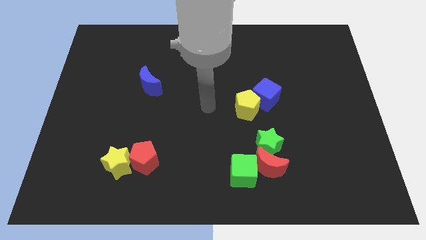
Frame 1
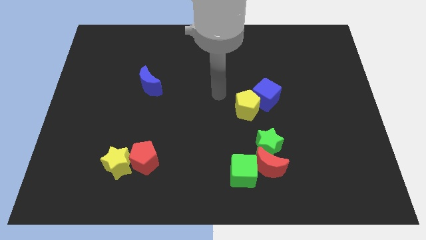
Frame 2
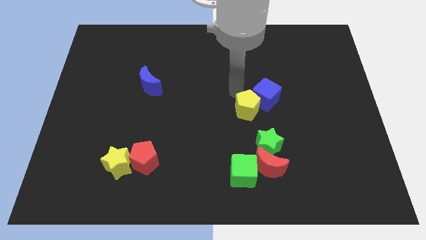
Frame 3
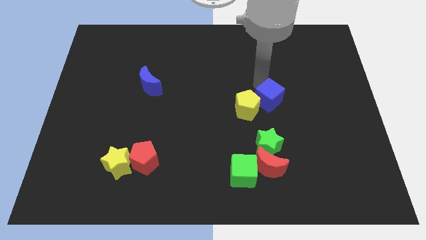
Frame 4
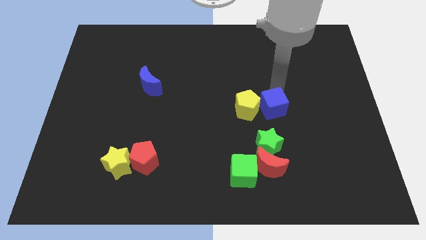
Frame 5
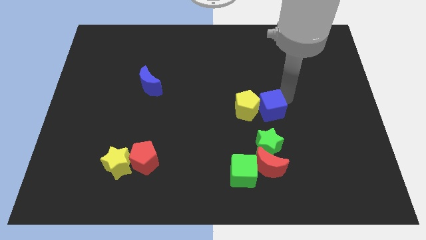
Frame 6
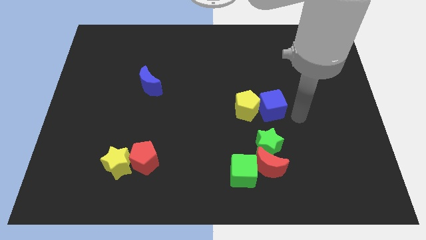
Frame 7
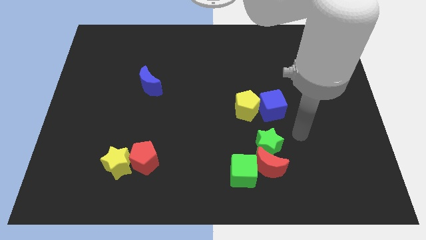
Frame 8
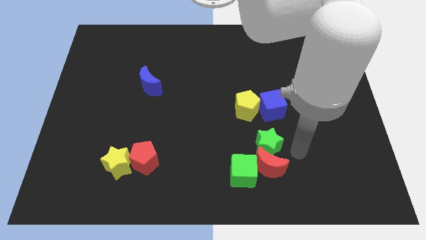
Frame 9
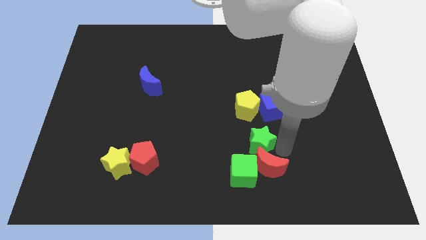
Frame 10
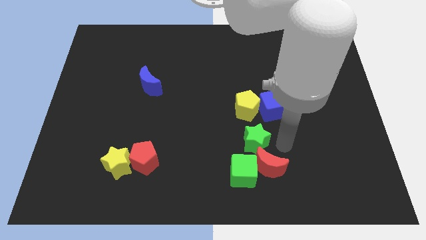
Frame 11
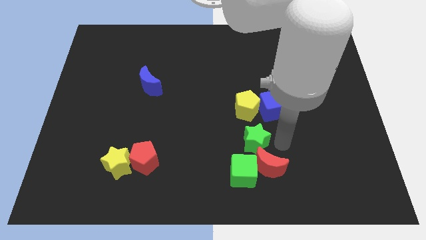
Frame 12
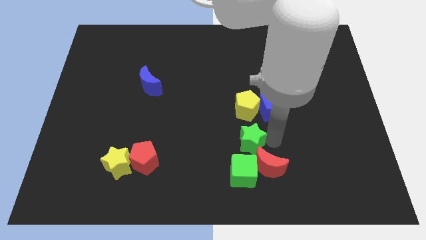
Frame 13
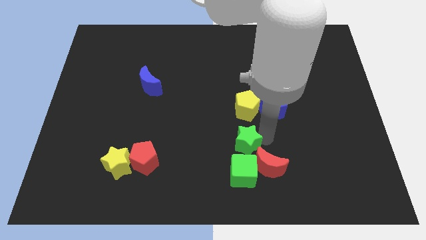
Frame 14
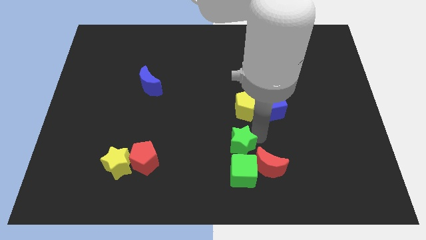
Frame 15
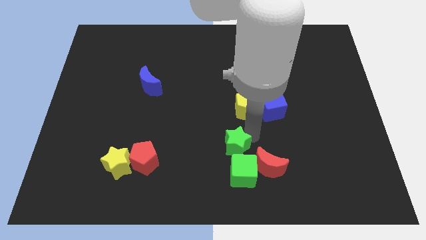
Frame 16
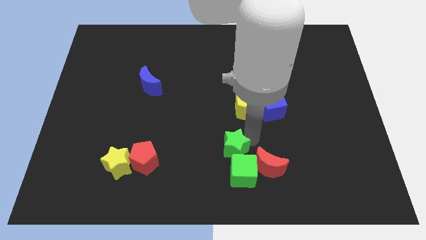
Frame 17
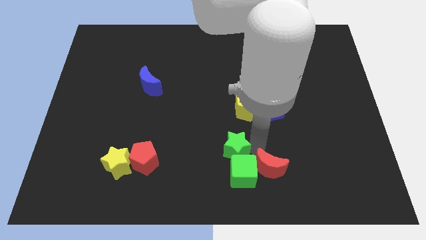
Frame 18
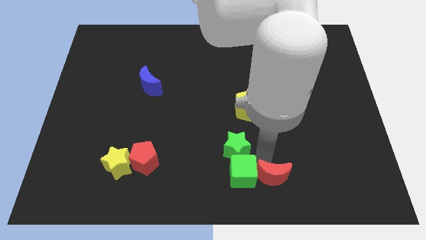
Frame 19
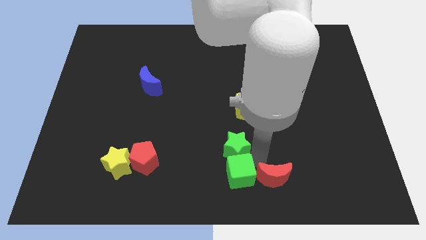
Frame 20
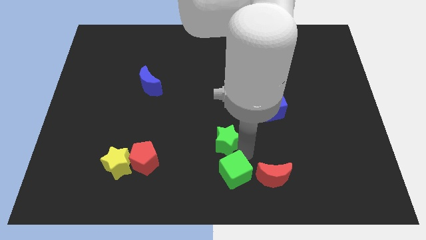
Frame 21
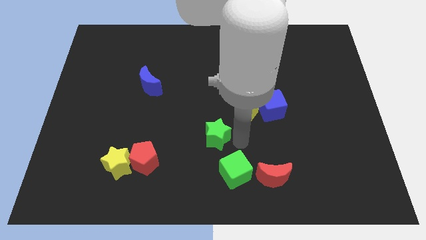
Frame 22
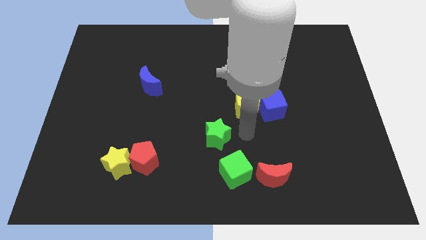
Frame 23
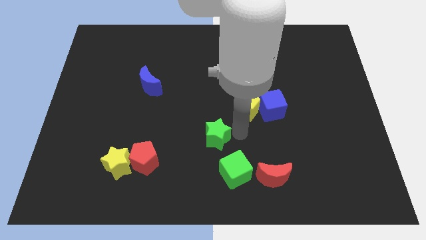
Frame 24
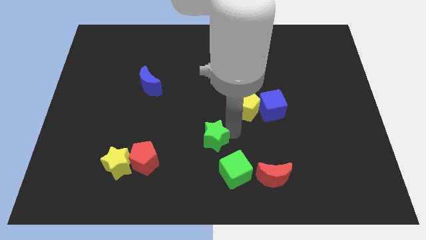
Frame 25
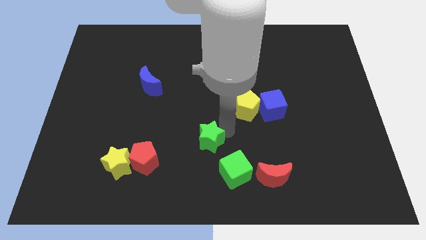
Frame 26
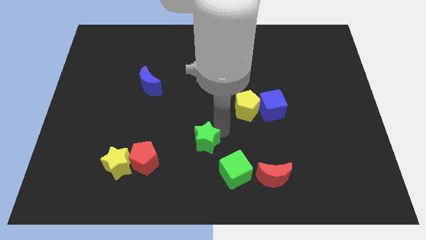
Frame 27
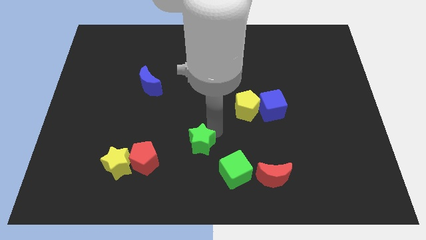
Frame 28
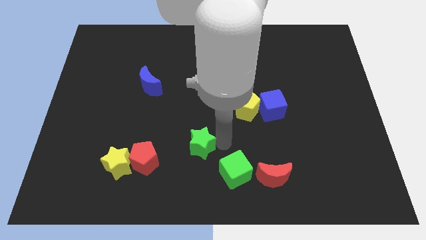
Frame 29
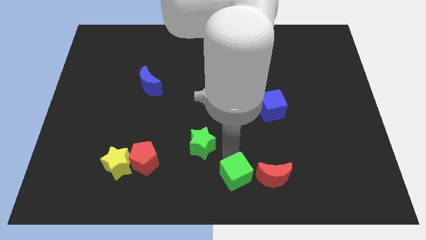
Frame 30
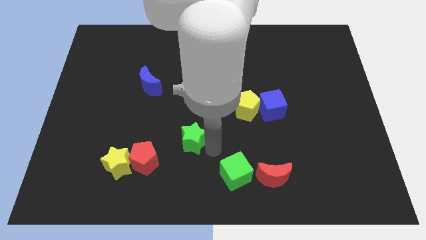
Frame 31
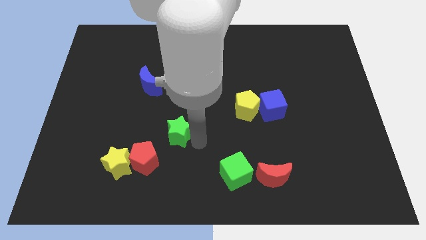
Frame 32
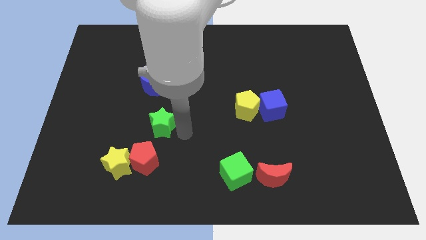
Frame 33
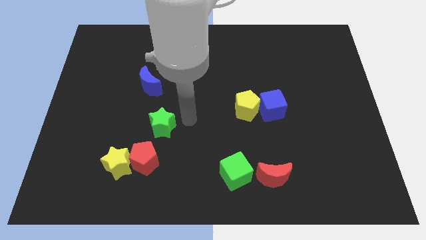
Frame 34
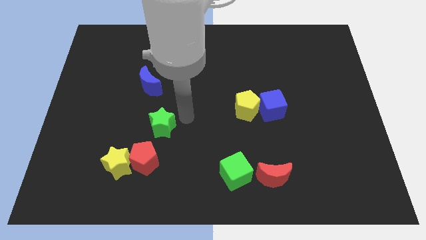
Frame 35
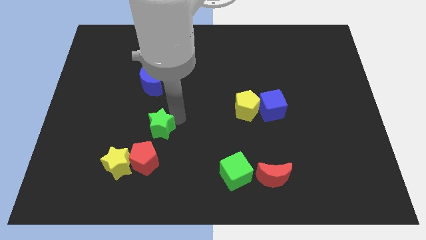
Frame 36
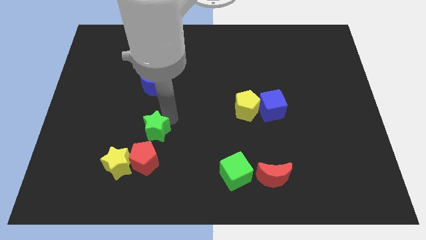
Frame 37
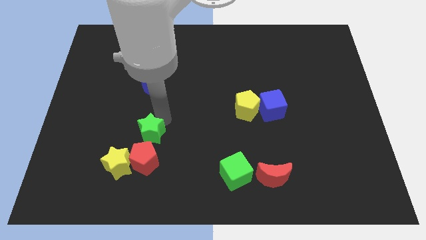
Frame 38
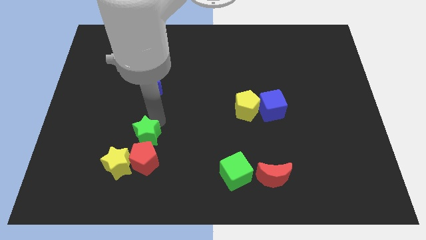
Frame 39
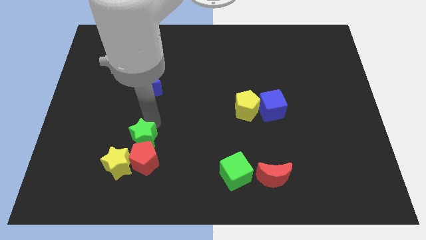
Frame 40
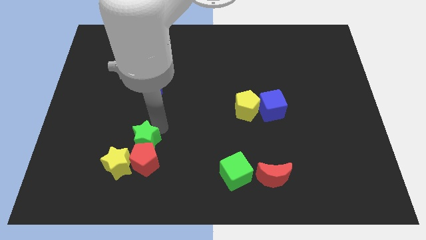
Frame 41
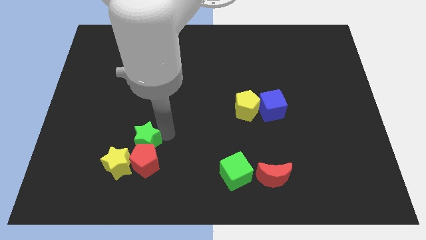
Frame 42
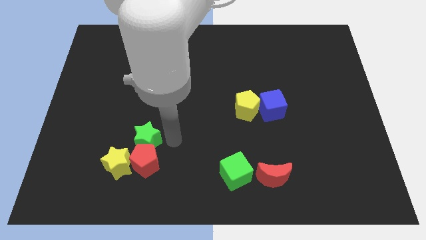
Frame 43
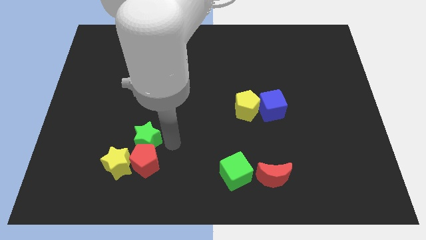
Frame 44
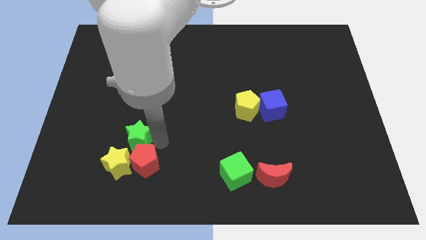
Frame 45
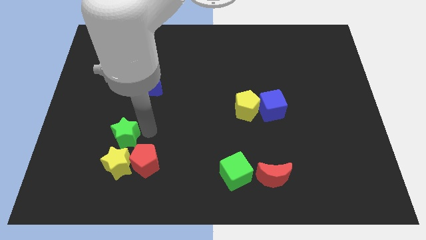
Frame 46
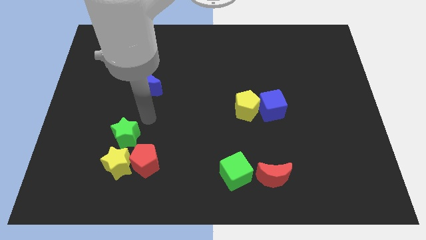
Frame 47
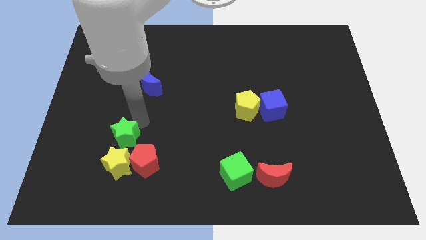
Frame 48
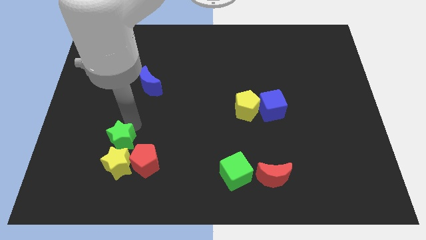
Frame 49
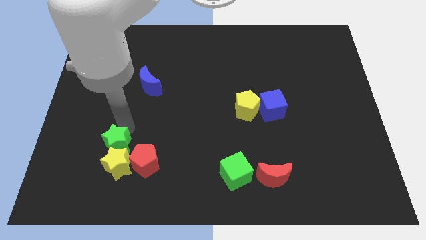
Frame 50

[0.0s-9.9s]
put the green star to the left of the red pentagon

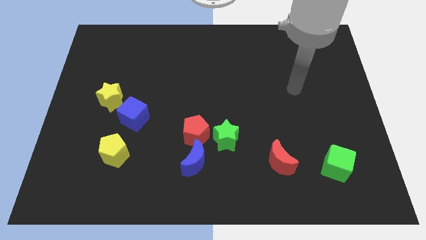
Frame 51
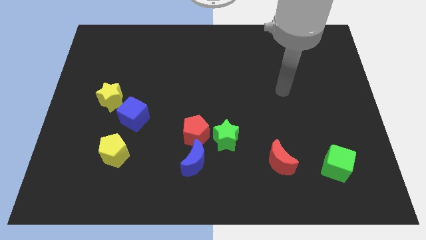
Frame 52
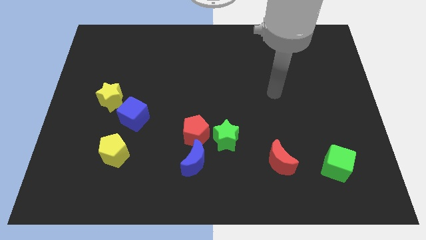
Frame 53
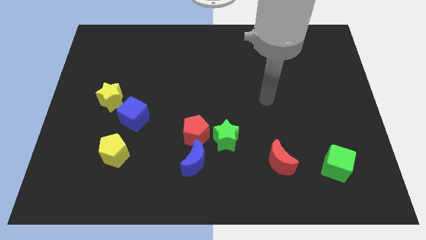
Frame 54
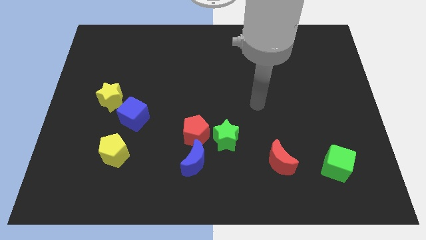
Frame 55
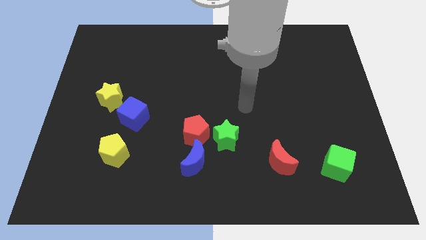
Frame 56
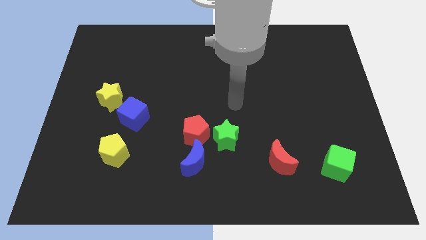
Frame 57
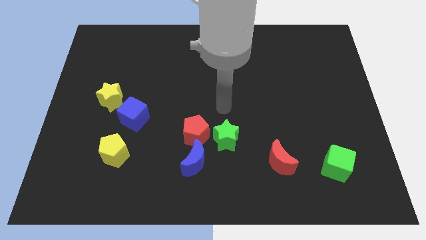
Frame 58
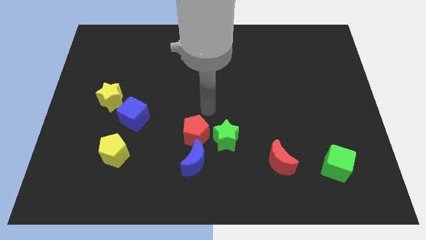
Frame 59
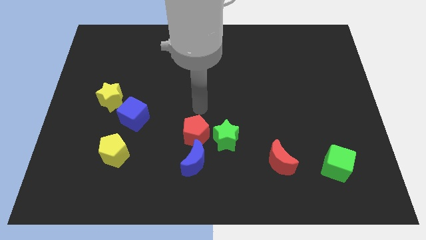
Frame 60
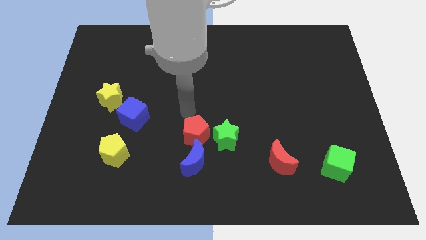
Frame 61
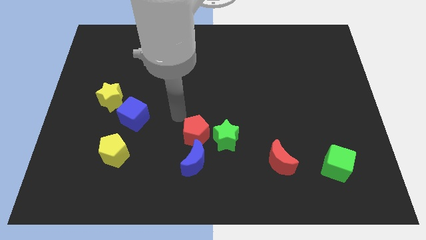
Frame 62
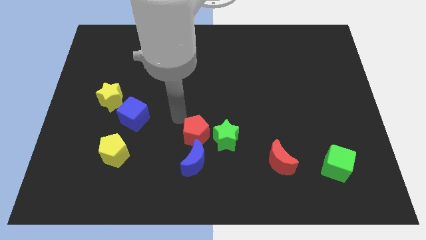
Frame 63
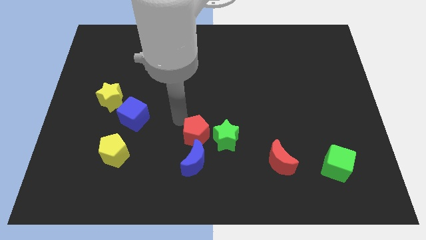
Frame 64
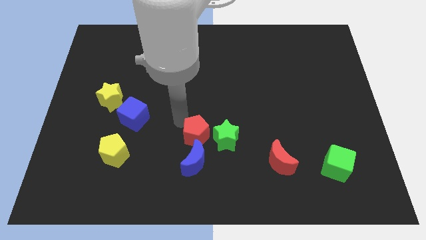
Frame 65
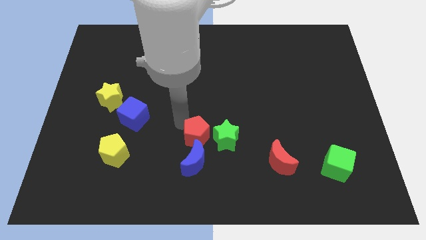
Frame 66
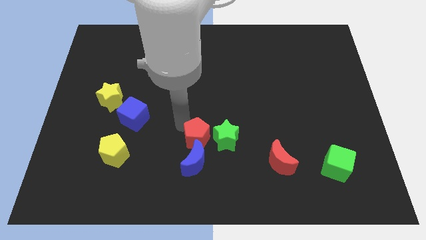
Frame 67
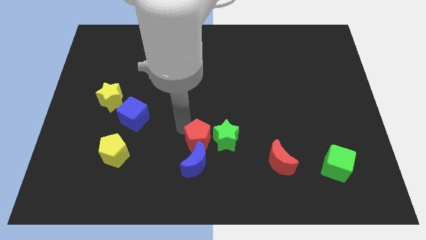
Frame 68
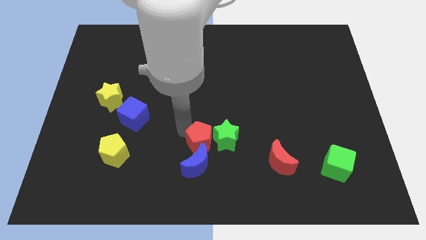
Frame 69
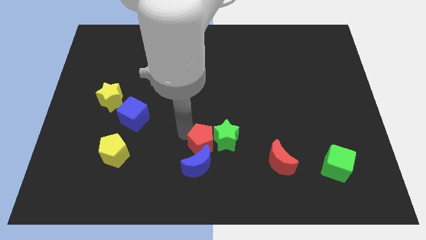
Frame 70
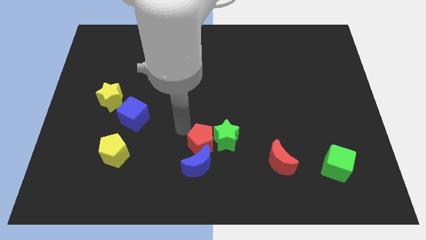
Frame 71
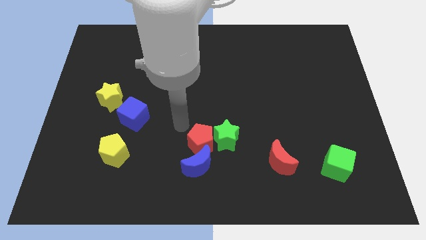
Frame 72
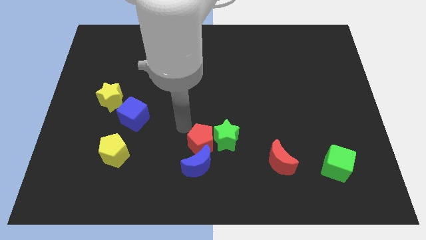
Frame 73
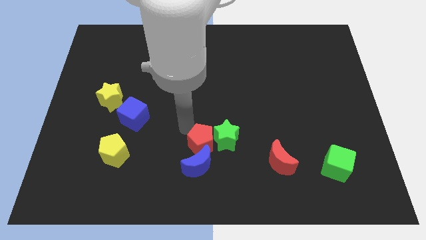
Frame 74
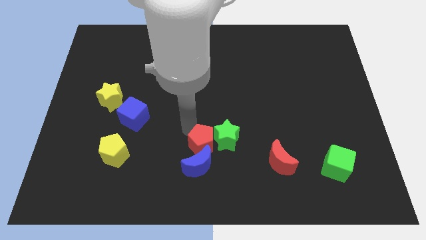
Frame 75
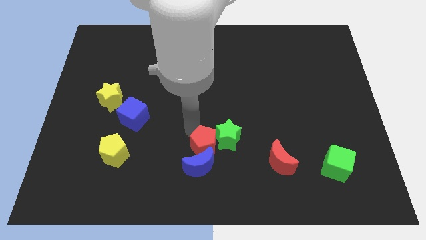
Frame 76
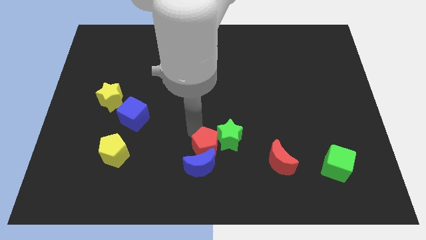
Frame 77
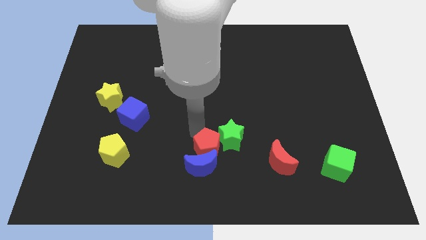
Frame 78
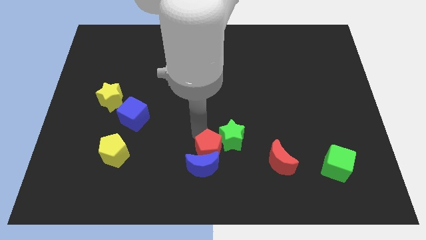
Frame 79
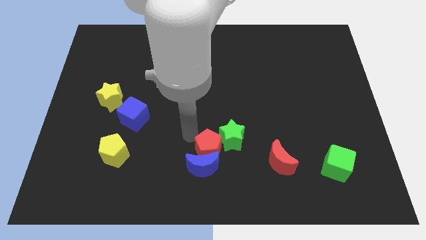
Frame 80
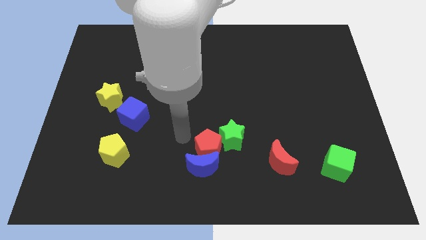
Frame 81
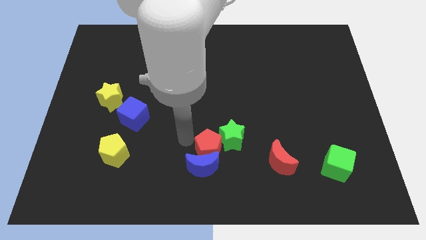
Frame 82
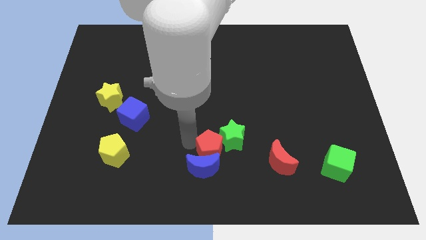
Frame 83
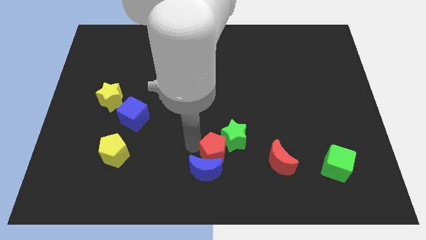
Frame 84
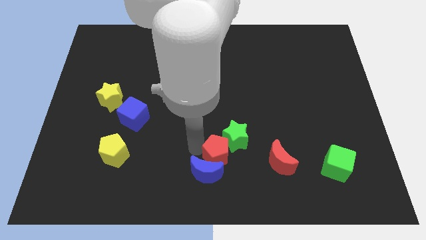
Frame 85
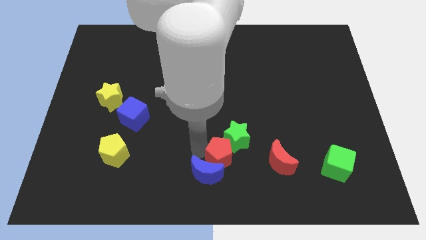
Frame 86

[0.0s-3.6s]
move the red pentagon to the right side of the blue moon
